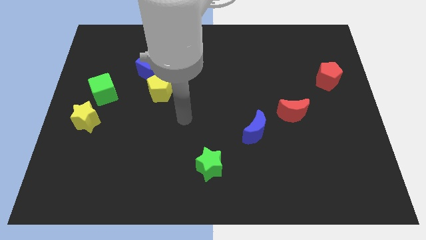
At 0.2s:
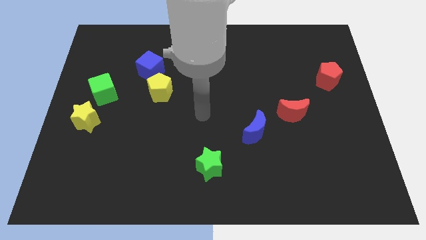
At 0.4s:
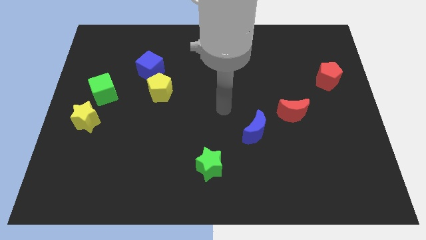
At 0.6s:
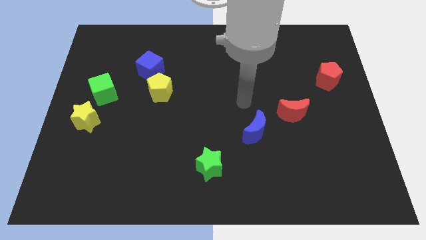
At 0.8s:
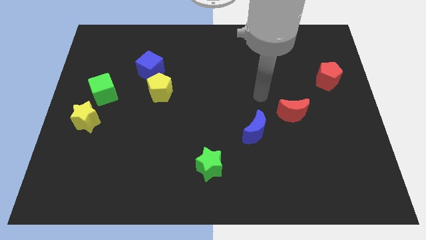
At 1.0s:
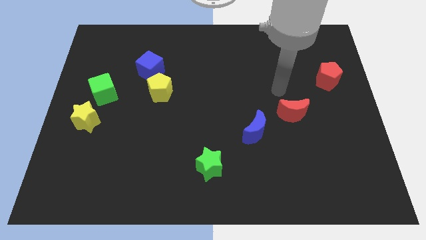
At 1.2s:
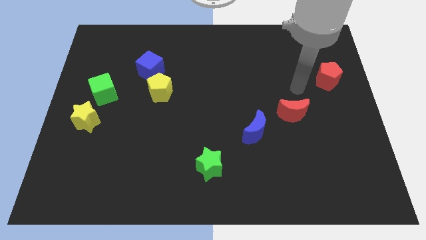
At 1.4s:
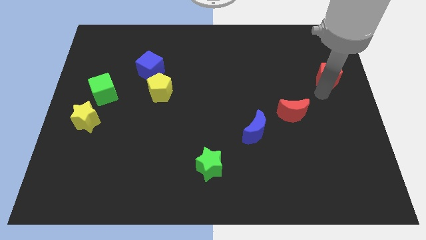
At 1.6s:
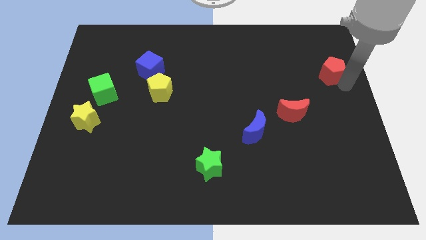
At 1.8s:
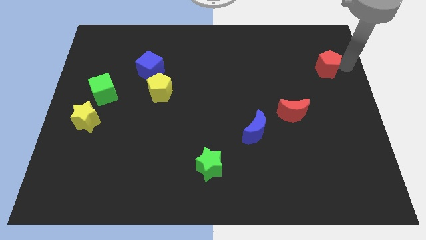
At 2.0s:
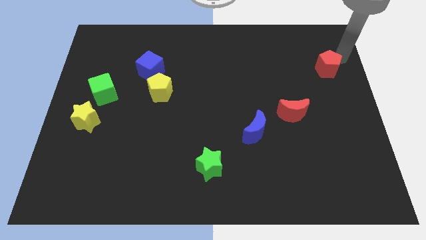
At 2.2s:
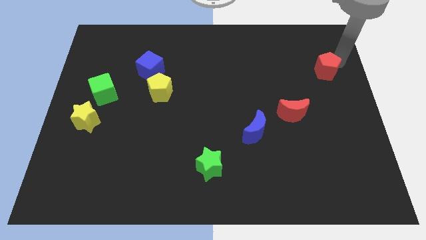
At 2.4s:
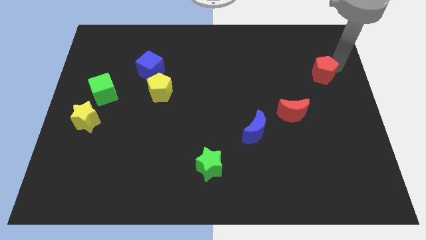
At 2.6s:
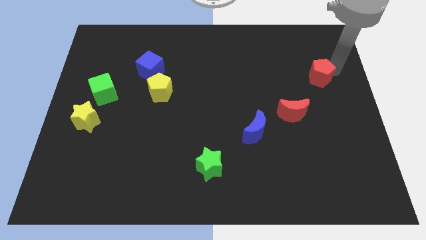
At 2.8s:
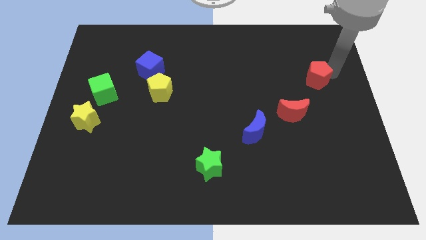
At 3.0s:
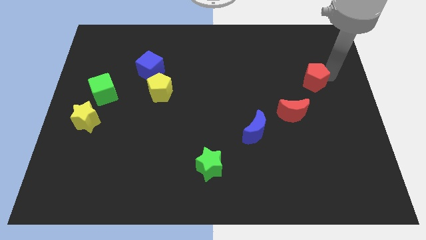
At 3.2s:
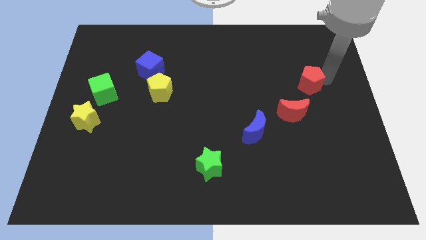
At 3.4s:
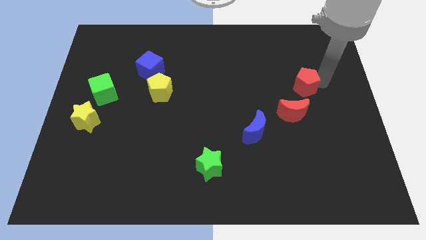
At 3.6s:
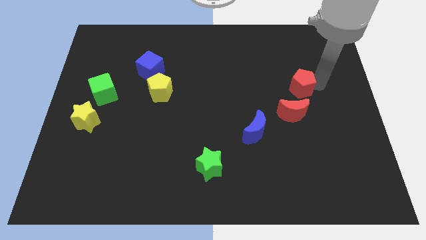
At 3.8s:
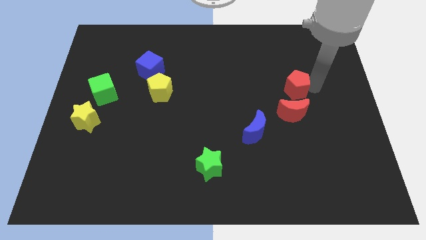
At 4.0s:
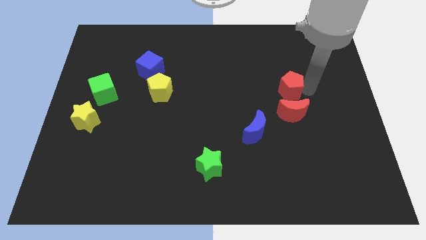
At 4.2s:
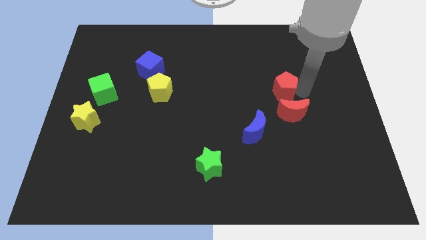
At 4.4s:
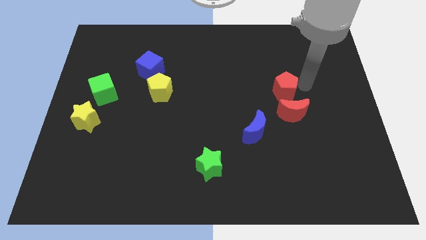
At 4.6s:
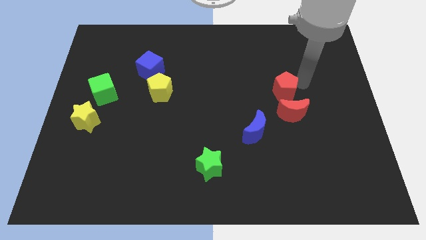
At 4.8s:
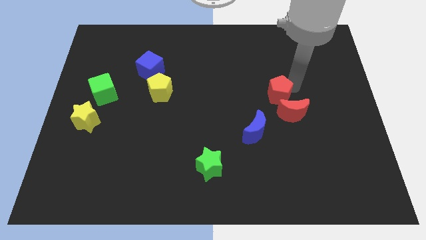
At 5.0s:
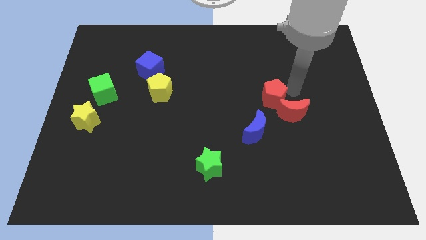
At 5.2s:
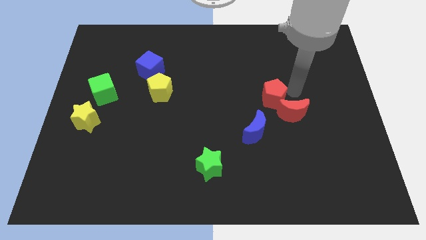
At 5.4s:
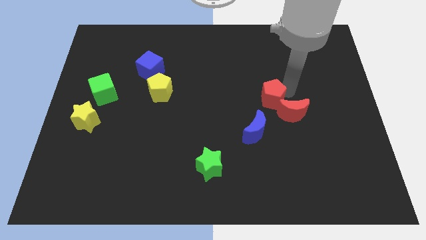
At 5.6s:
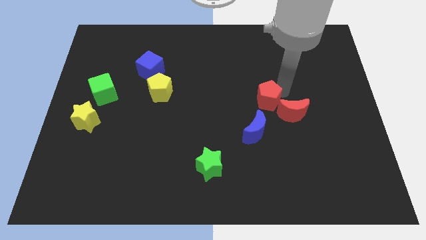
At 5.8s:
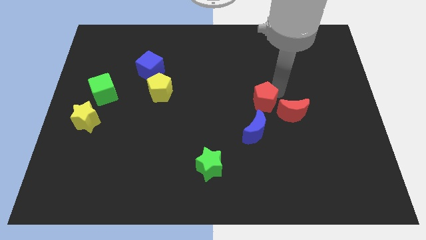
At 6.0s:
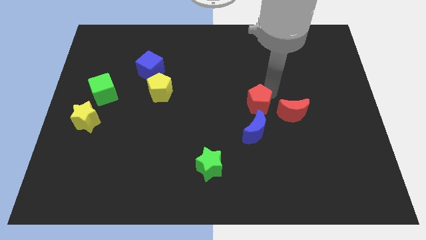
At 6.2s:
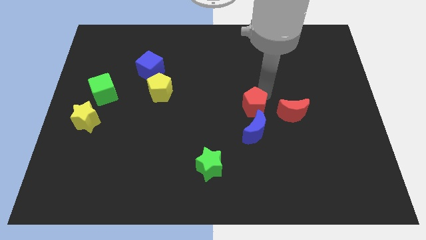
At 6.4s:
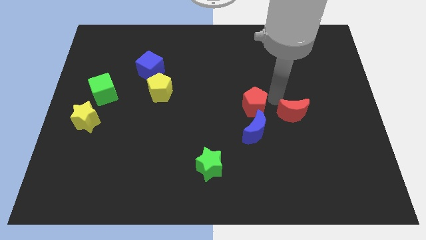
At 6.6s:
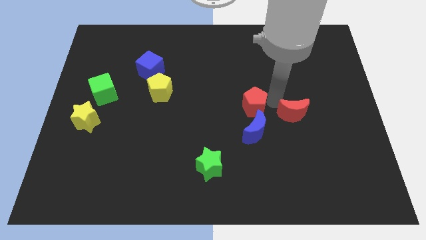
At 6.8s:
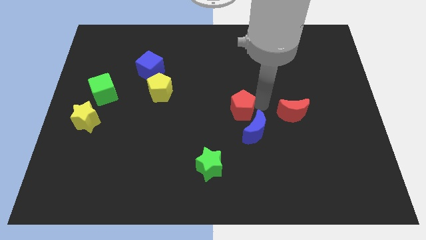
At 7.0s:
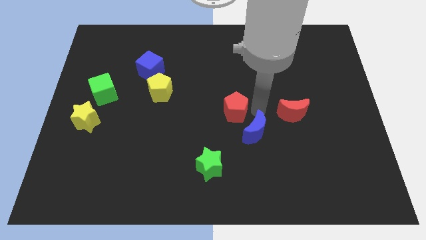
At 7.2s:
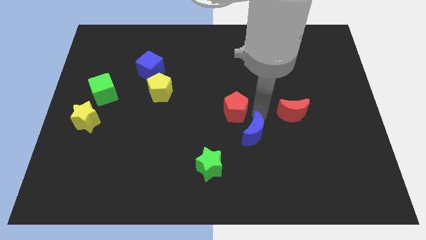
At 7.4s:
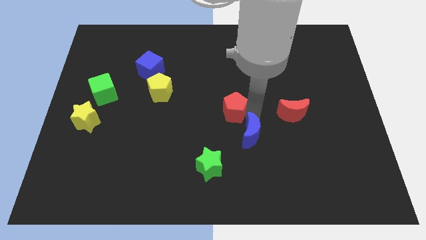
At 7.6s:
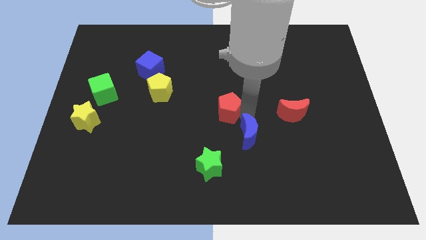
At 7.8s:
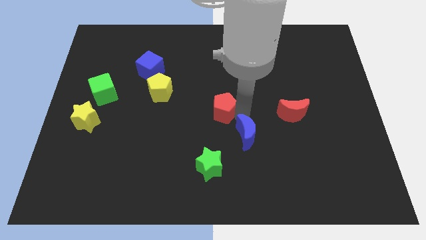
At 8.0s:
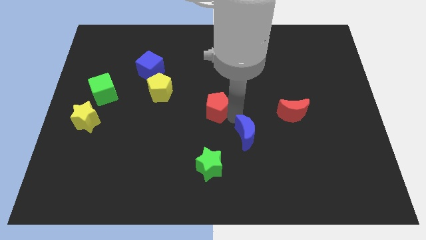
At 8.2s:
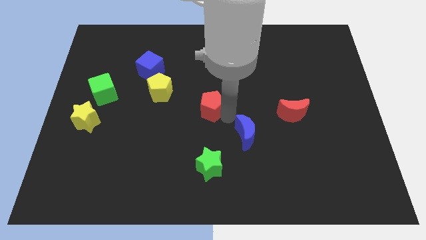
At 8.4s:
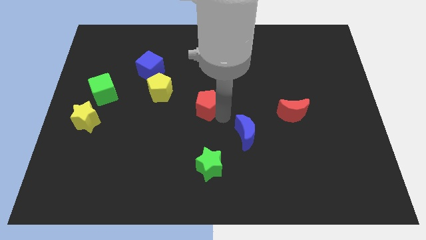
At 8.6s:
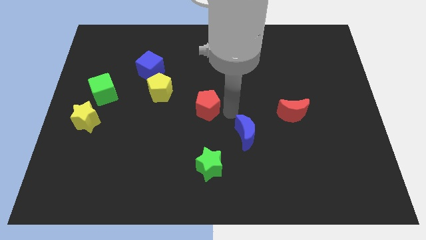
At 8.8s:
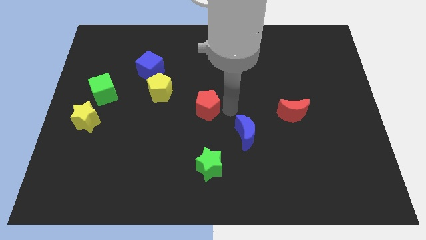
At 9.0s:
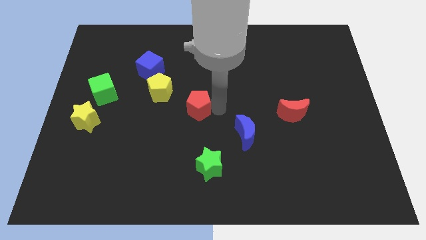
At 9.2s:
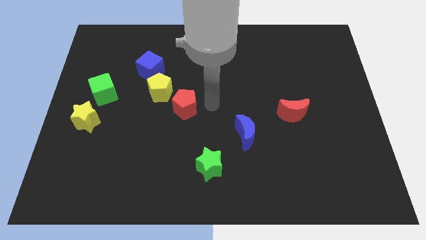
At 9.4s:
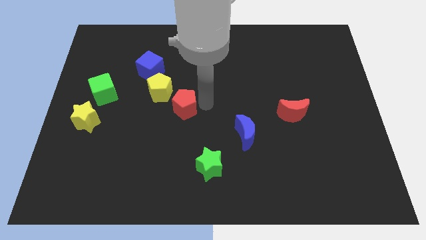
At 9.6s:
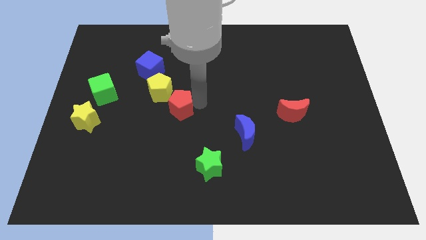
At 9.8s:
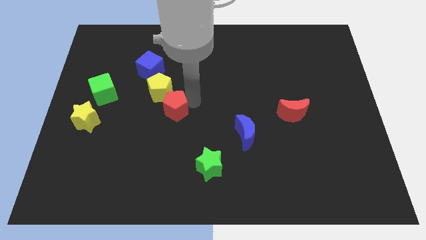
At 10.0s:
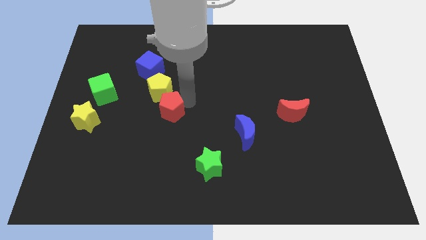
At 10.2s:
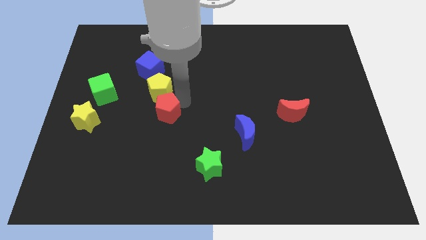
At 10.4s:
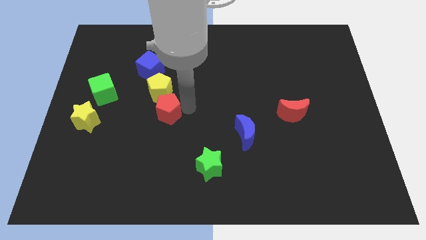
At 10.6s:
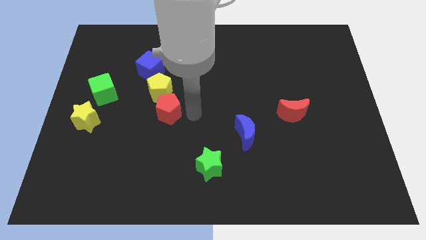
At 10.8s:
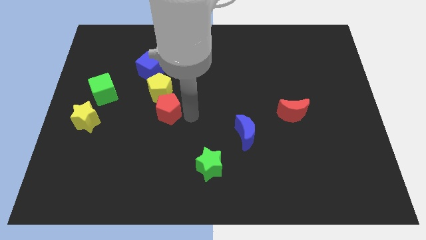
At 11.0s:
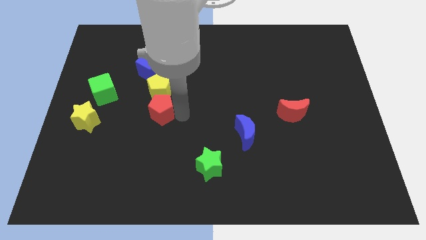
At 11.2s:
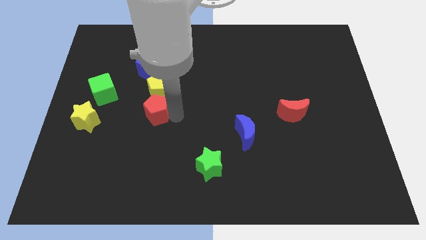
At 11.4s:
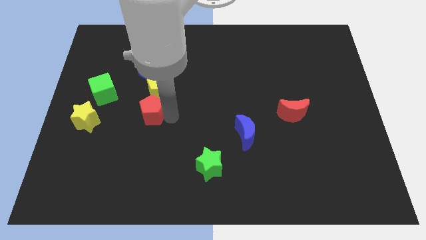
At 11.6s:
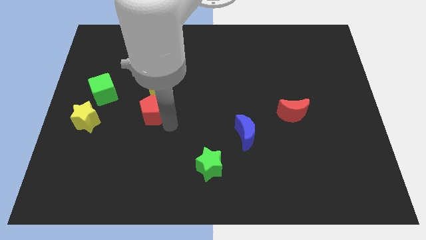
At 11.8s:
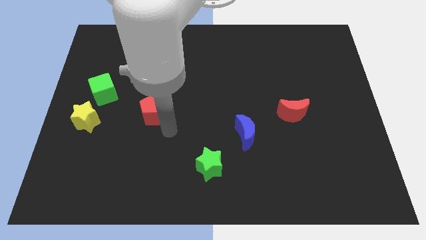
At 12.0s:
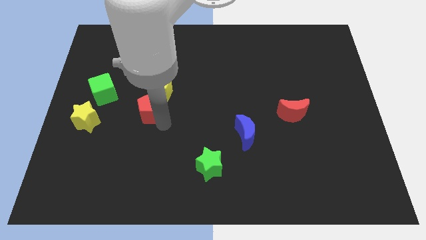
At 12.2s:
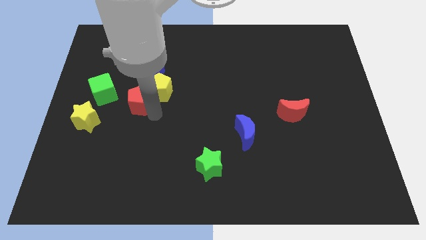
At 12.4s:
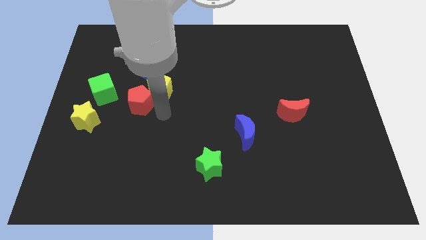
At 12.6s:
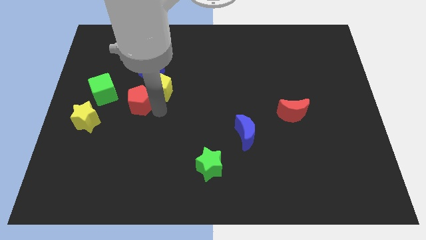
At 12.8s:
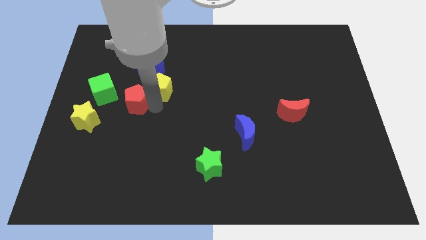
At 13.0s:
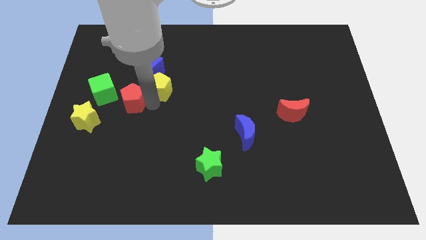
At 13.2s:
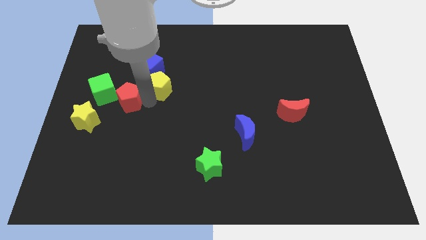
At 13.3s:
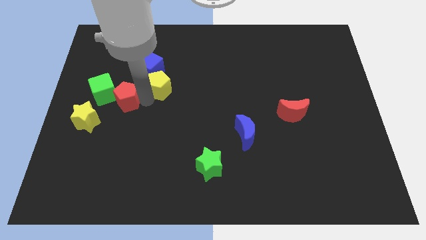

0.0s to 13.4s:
move the red pentagon close to the green cube

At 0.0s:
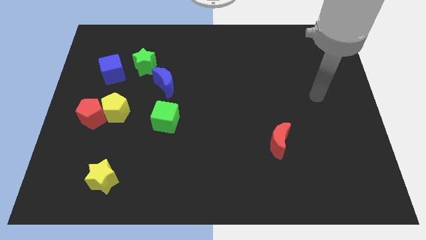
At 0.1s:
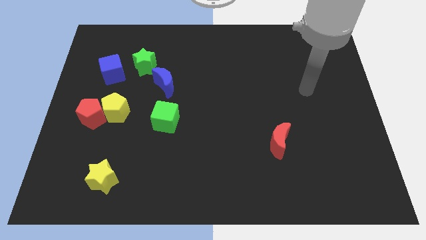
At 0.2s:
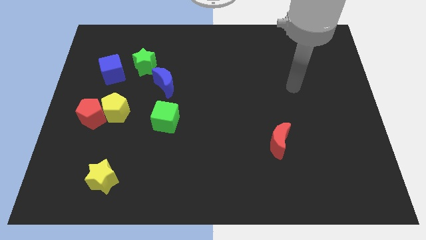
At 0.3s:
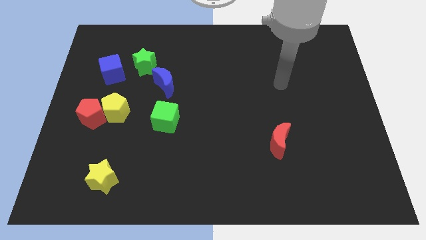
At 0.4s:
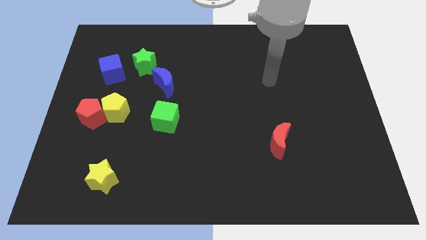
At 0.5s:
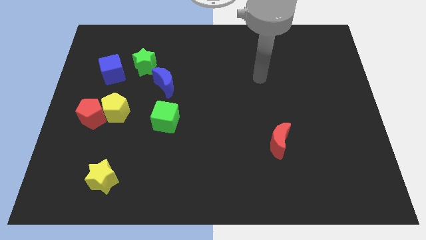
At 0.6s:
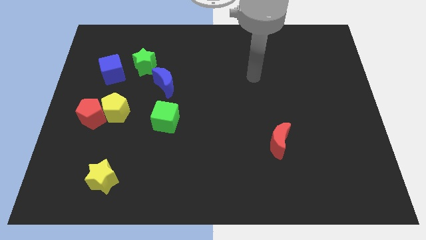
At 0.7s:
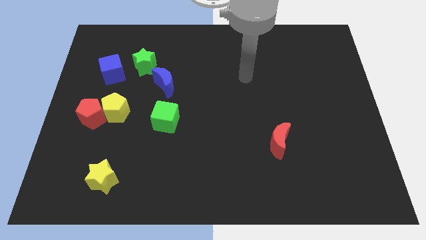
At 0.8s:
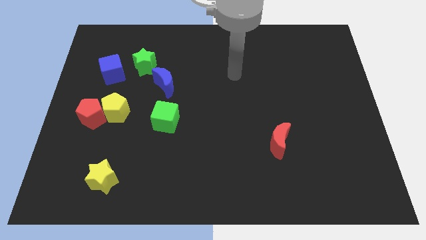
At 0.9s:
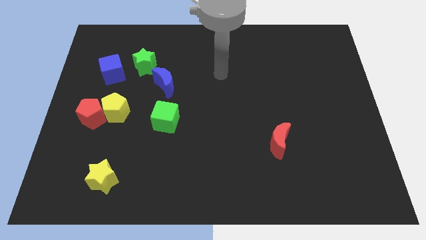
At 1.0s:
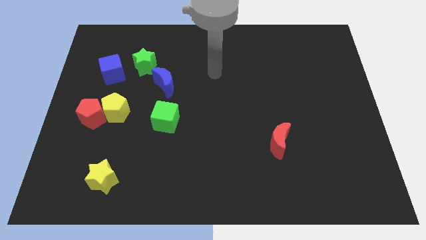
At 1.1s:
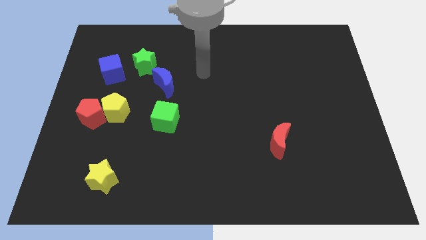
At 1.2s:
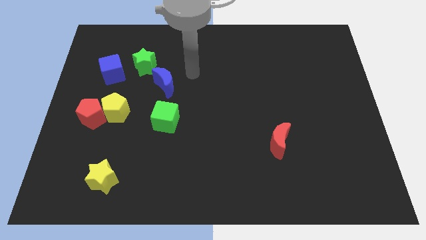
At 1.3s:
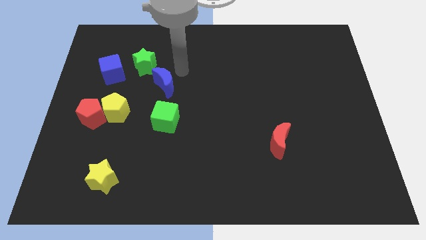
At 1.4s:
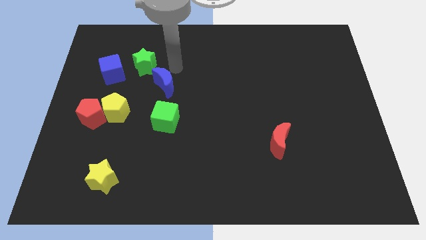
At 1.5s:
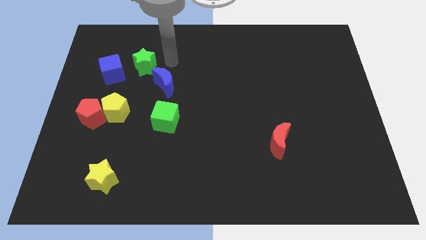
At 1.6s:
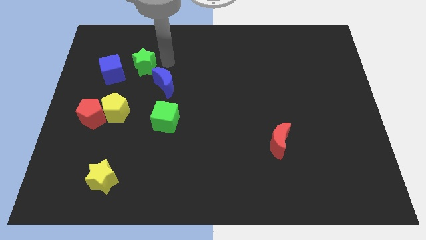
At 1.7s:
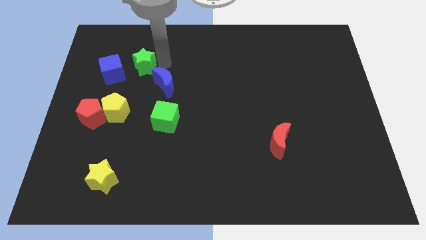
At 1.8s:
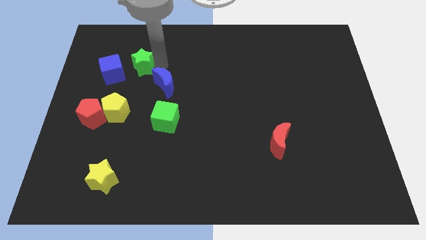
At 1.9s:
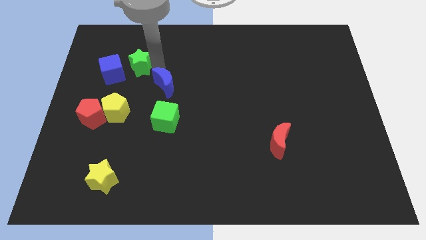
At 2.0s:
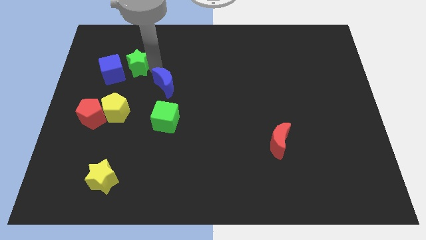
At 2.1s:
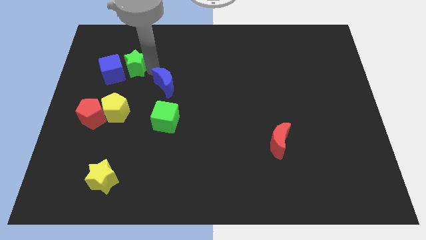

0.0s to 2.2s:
put the green star to the blue cube
